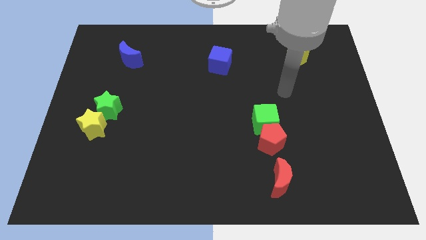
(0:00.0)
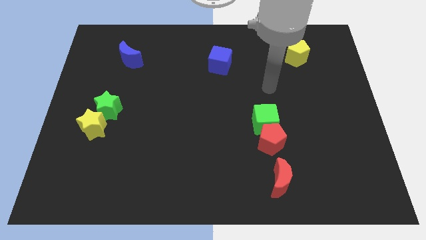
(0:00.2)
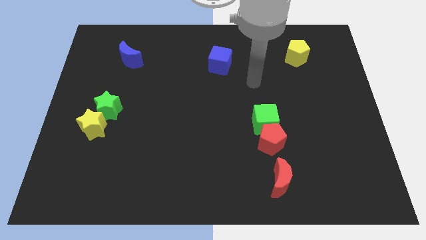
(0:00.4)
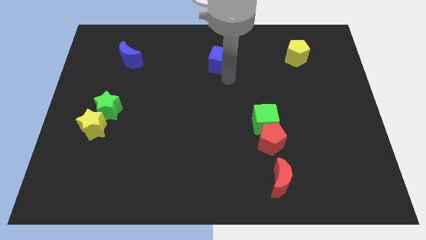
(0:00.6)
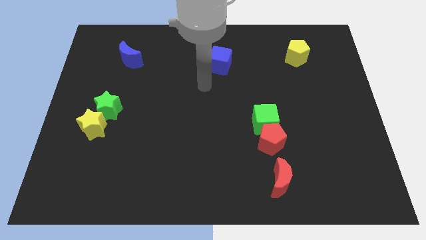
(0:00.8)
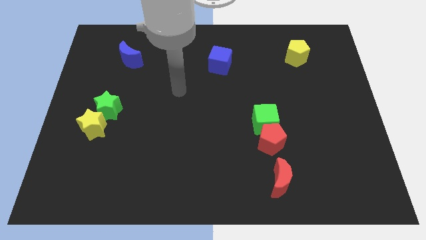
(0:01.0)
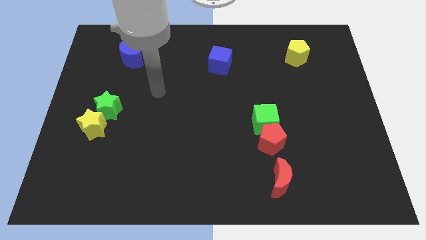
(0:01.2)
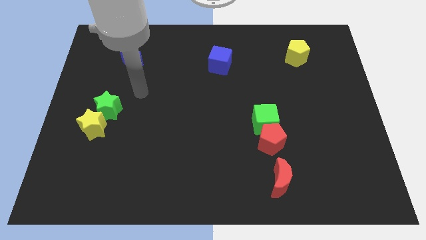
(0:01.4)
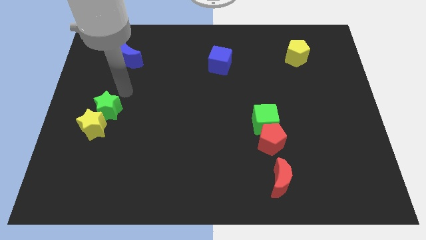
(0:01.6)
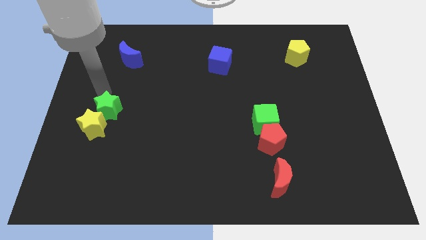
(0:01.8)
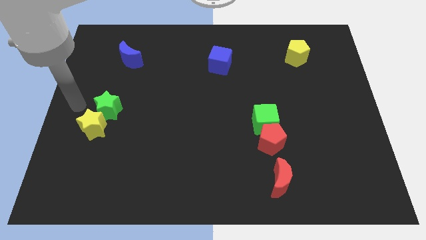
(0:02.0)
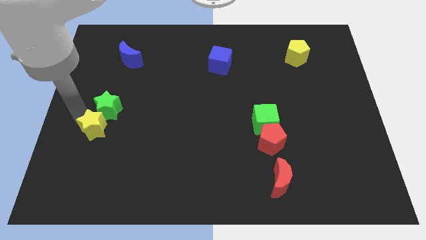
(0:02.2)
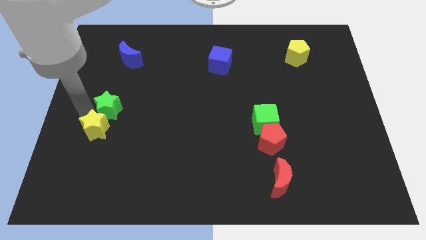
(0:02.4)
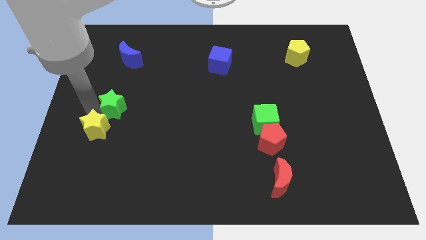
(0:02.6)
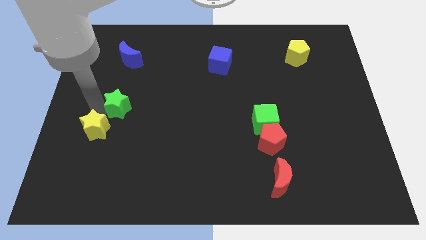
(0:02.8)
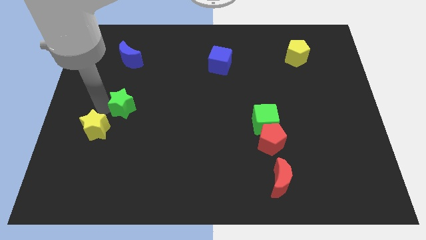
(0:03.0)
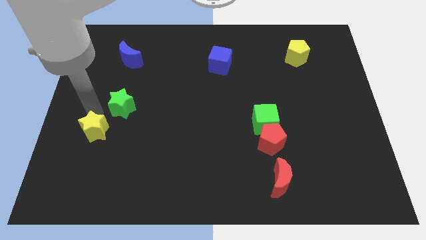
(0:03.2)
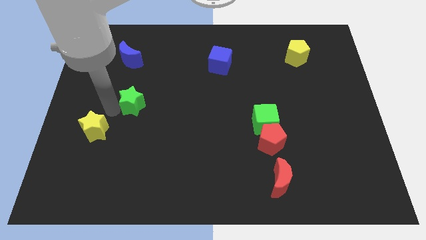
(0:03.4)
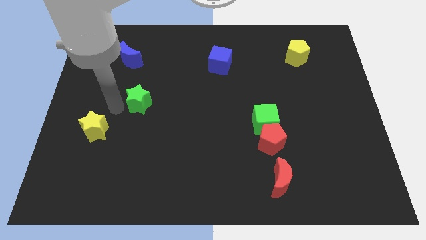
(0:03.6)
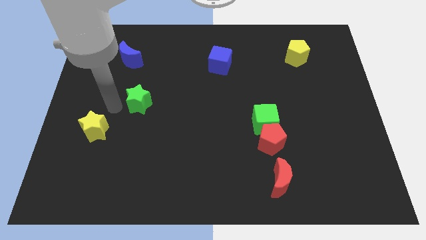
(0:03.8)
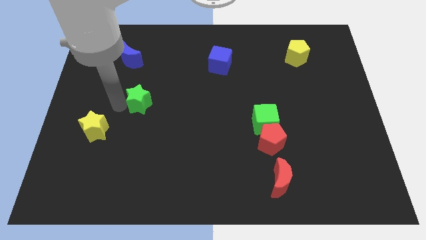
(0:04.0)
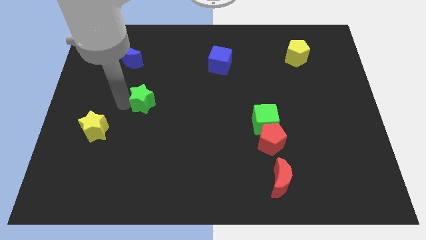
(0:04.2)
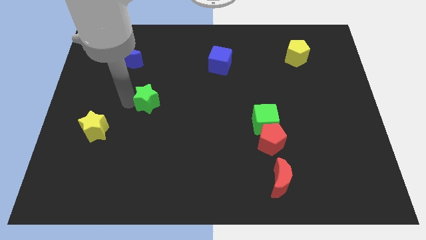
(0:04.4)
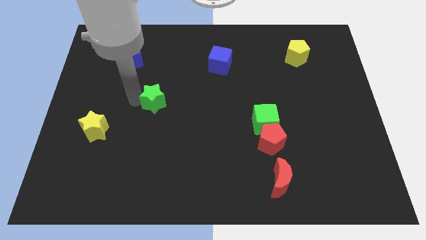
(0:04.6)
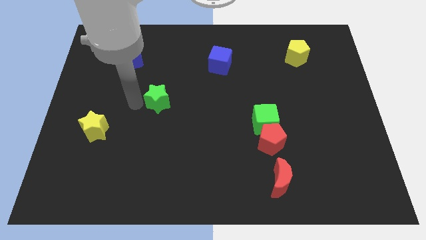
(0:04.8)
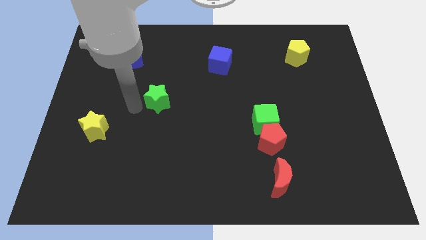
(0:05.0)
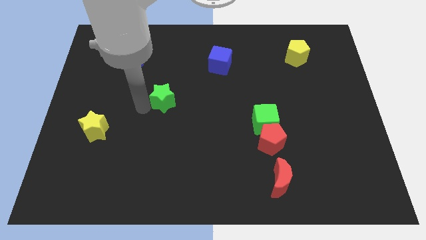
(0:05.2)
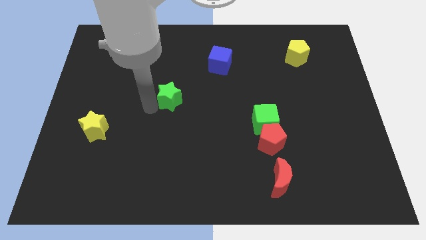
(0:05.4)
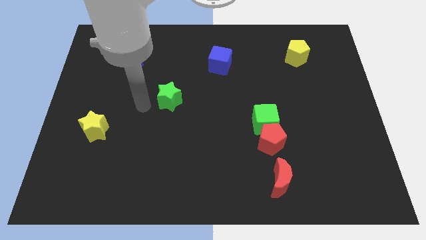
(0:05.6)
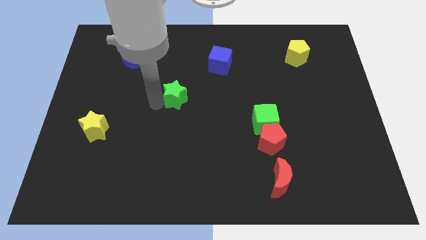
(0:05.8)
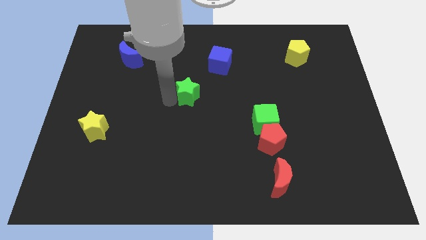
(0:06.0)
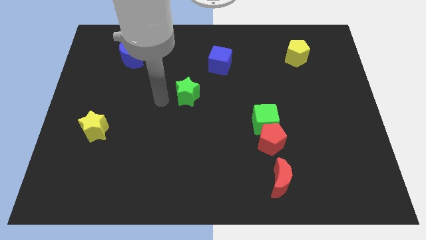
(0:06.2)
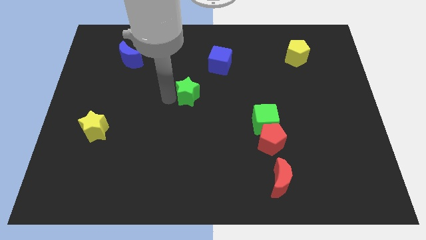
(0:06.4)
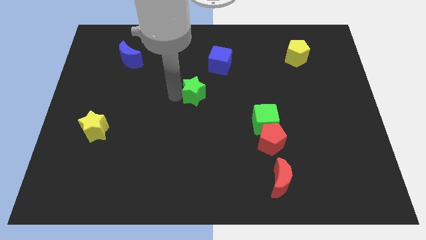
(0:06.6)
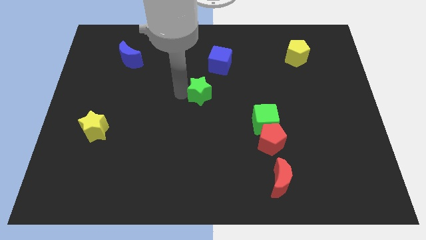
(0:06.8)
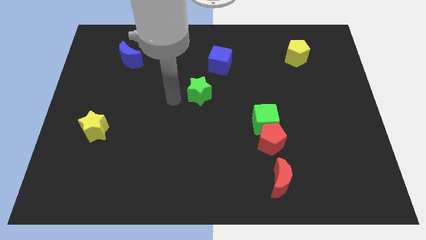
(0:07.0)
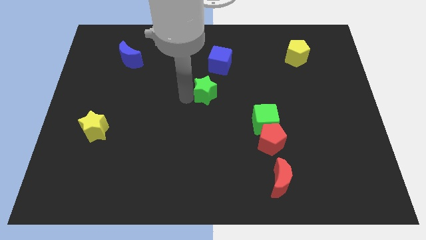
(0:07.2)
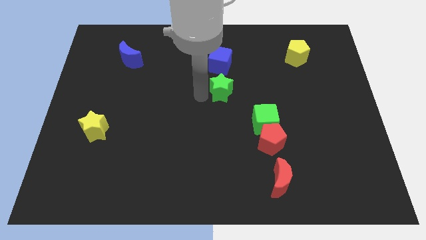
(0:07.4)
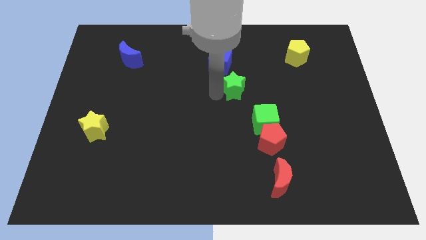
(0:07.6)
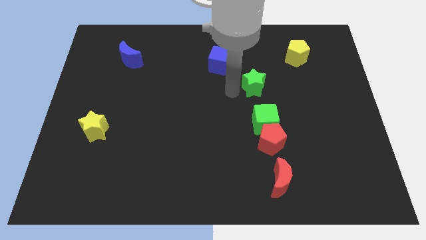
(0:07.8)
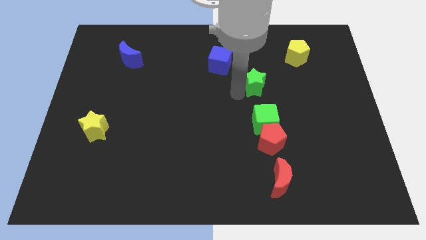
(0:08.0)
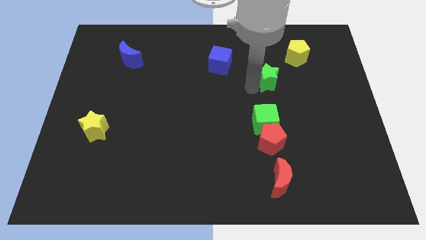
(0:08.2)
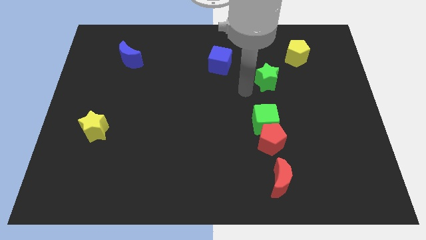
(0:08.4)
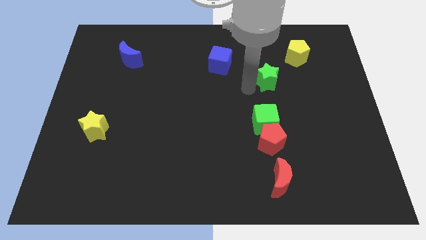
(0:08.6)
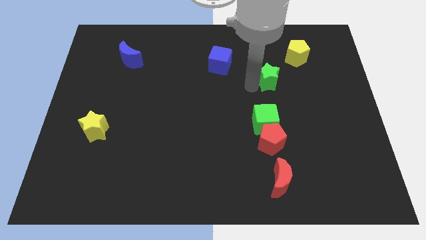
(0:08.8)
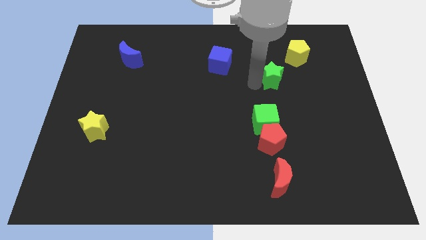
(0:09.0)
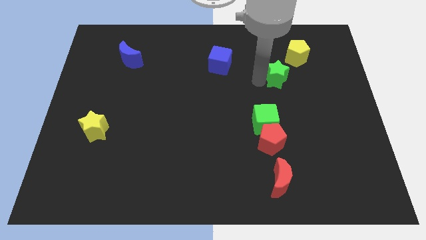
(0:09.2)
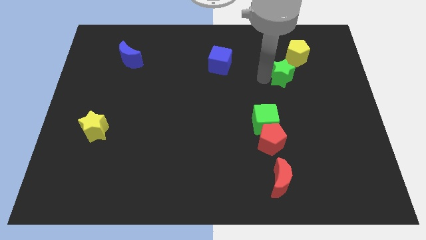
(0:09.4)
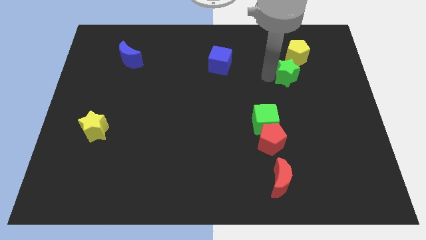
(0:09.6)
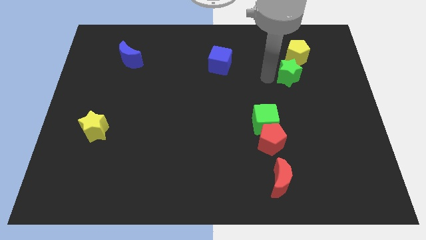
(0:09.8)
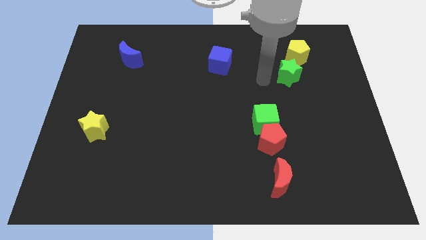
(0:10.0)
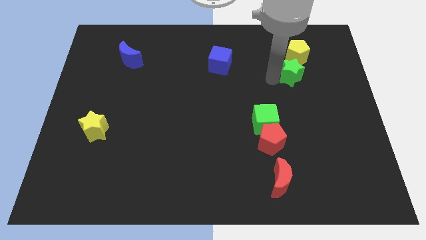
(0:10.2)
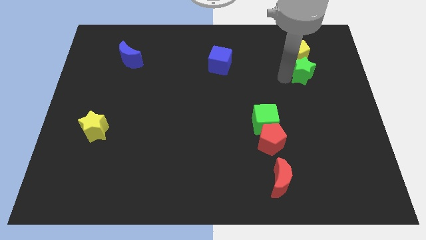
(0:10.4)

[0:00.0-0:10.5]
put the green star to the bottom right side of the yellow pentagon

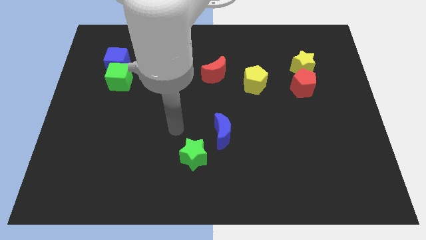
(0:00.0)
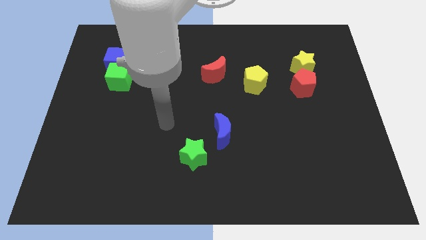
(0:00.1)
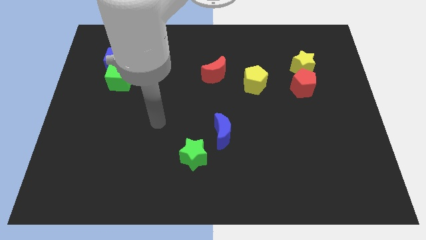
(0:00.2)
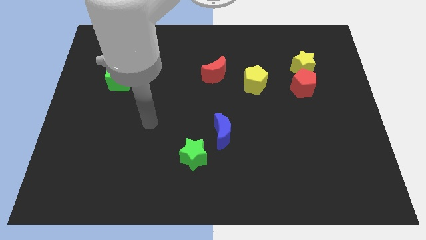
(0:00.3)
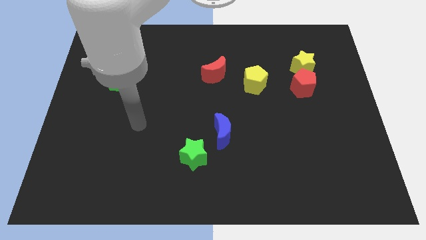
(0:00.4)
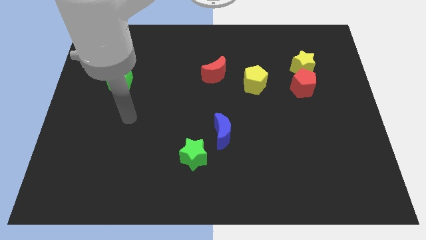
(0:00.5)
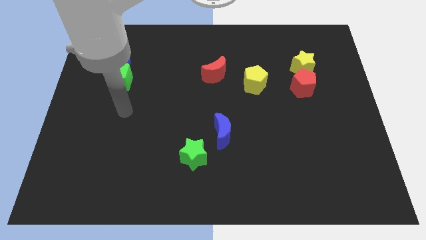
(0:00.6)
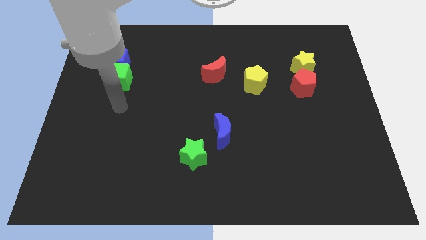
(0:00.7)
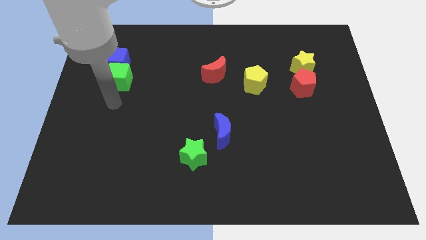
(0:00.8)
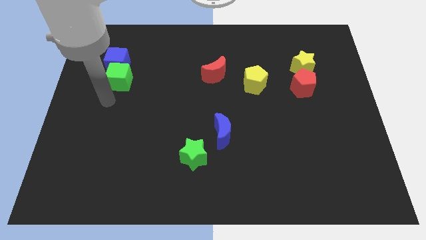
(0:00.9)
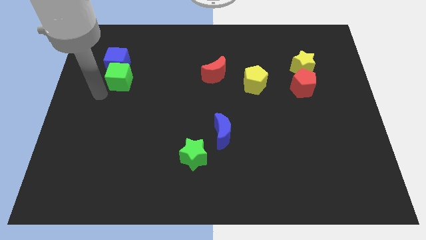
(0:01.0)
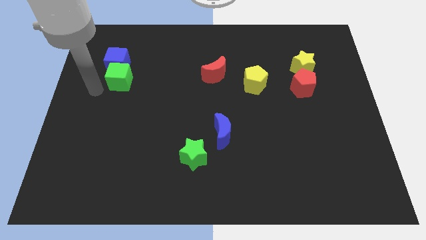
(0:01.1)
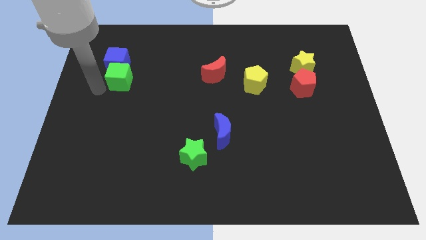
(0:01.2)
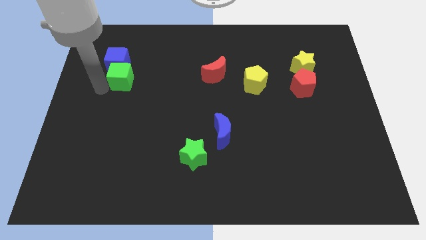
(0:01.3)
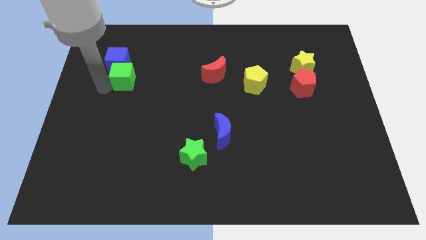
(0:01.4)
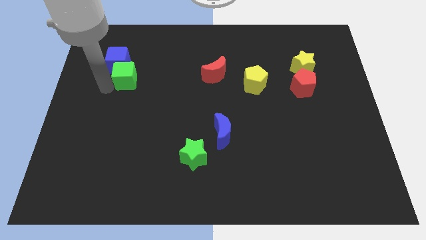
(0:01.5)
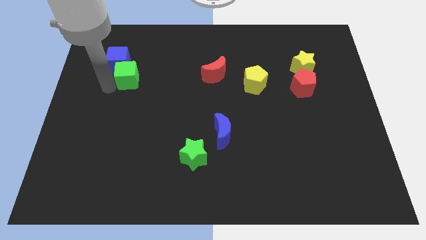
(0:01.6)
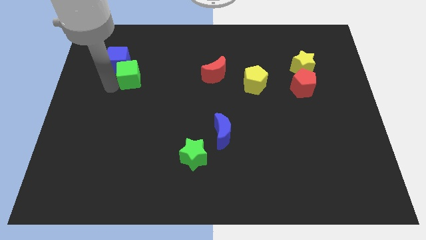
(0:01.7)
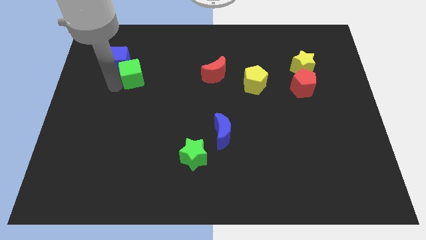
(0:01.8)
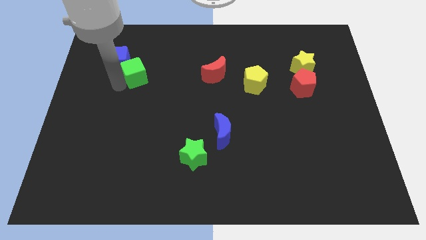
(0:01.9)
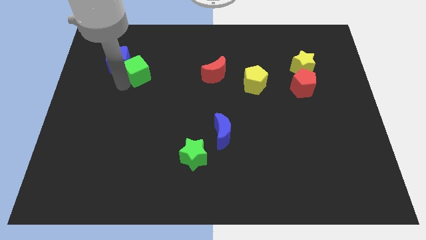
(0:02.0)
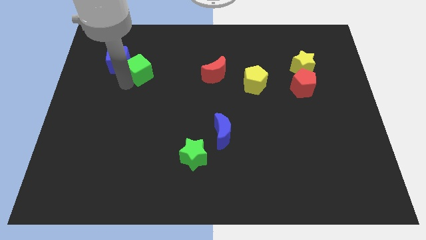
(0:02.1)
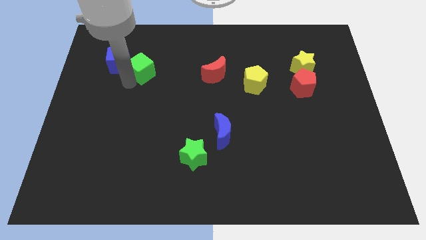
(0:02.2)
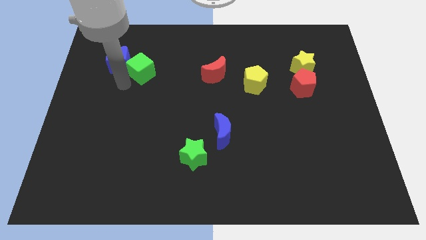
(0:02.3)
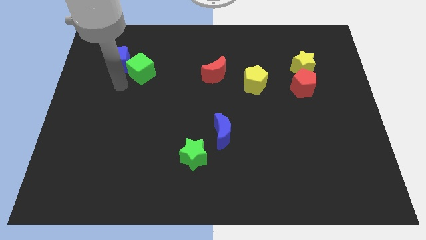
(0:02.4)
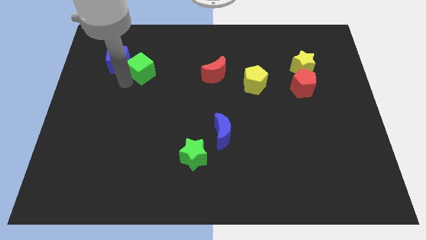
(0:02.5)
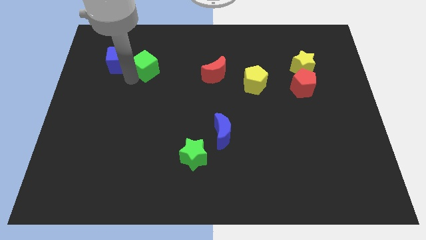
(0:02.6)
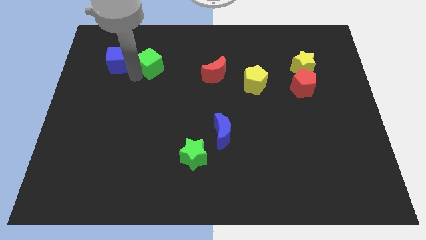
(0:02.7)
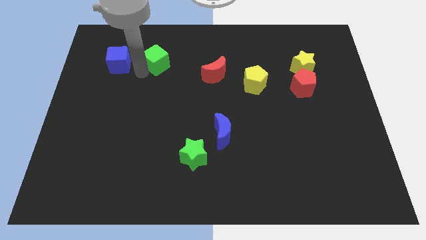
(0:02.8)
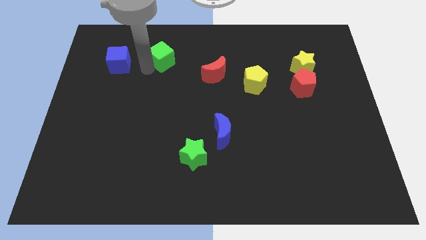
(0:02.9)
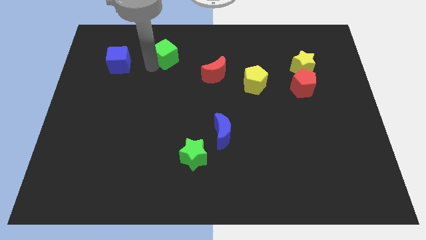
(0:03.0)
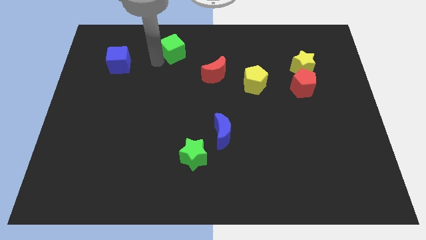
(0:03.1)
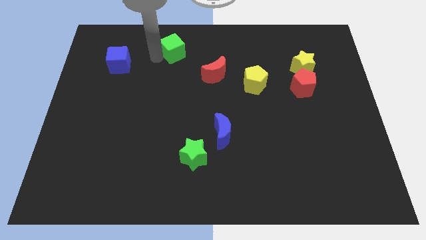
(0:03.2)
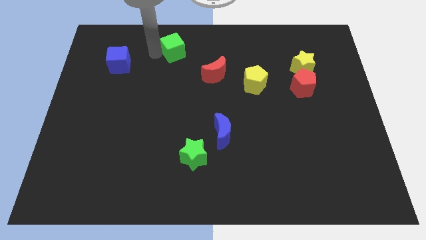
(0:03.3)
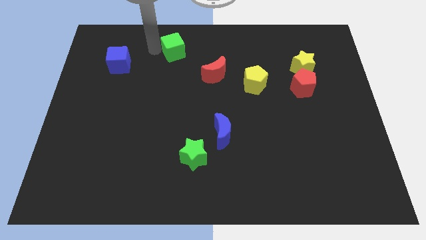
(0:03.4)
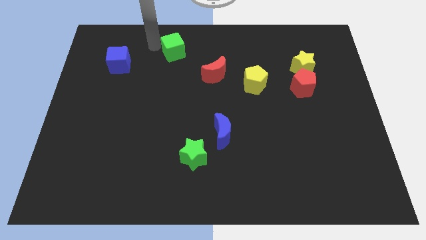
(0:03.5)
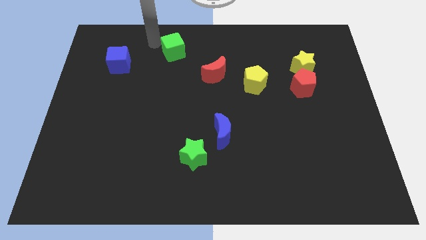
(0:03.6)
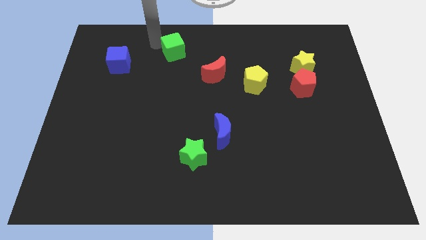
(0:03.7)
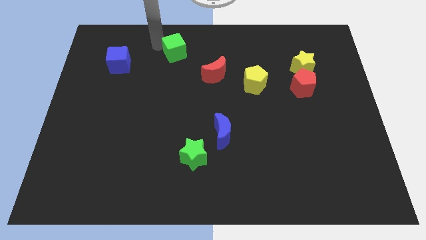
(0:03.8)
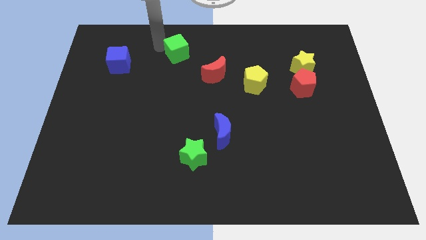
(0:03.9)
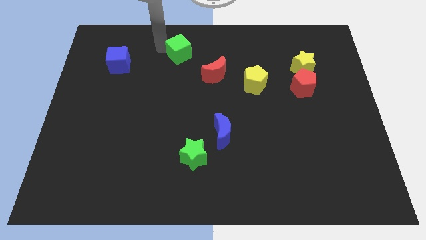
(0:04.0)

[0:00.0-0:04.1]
push the green cube to the top left side of the red moon
